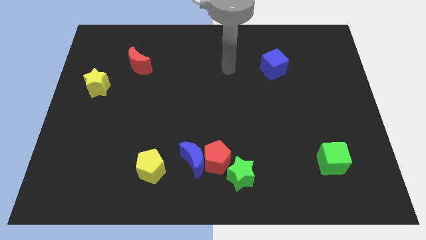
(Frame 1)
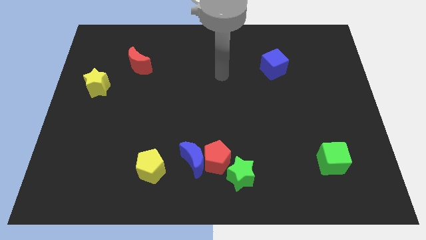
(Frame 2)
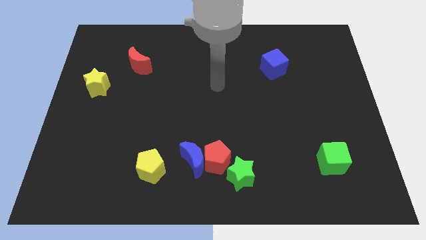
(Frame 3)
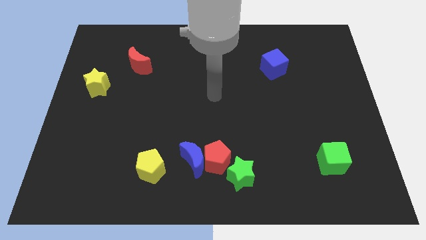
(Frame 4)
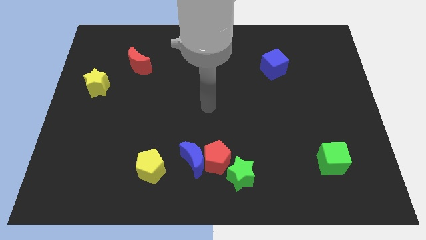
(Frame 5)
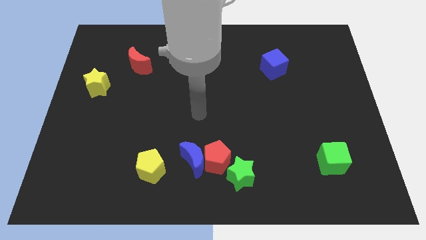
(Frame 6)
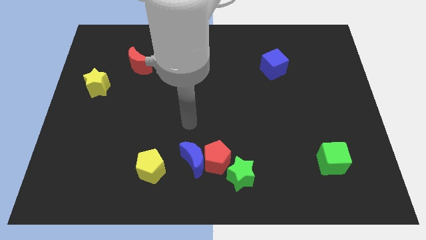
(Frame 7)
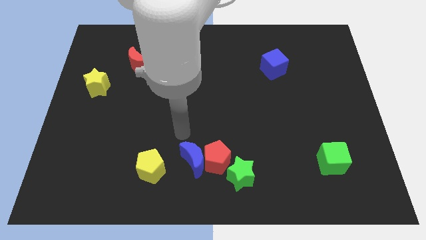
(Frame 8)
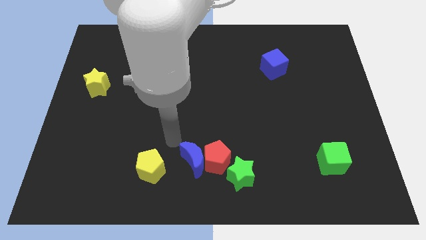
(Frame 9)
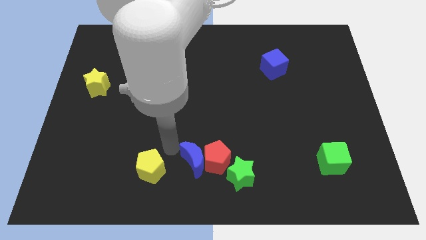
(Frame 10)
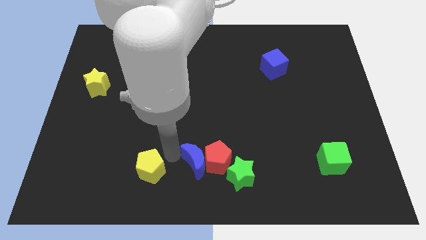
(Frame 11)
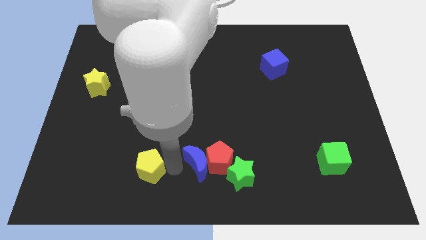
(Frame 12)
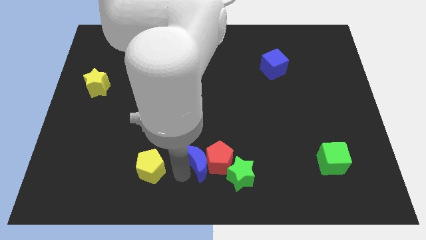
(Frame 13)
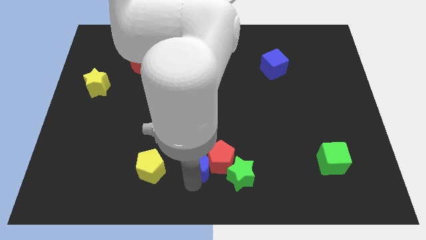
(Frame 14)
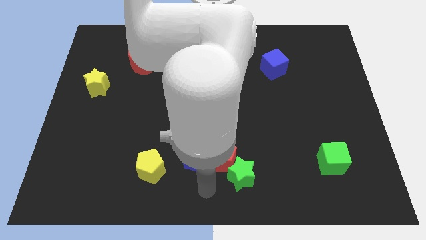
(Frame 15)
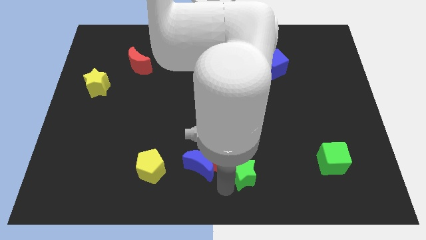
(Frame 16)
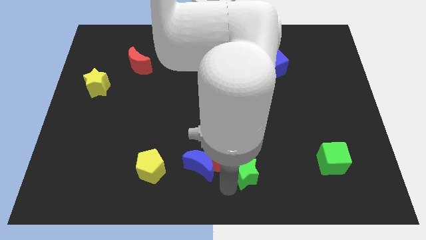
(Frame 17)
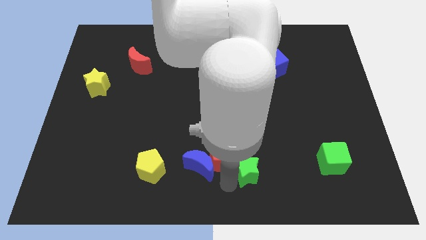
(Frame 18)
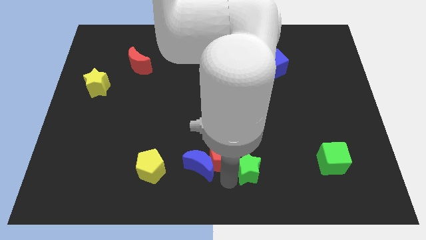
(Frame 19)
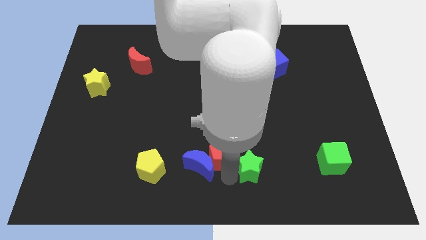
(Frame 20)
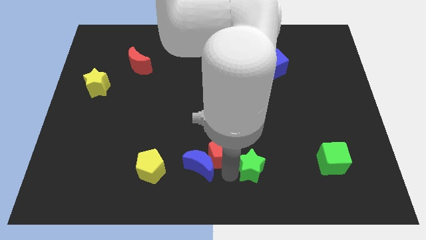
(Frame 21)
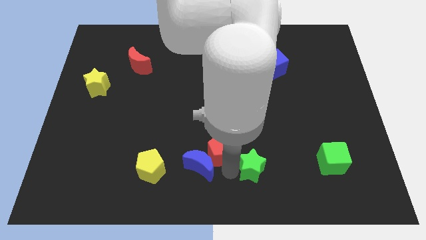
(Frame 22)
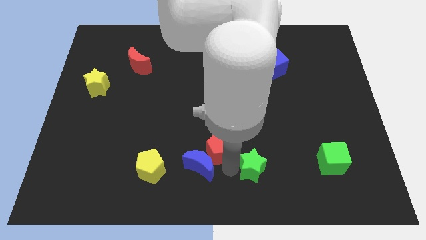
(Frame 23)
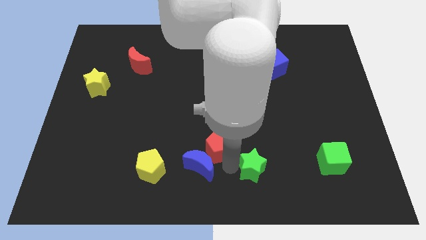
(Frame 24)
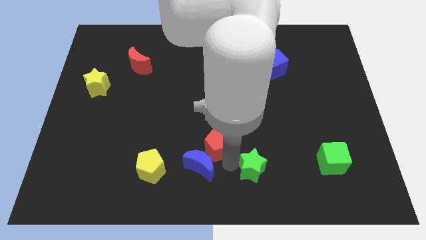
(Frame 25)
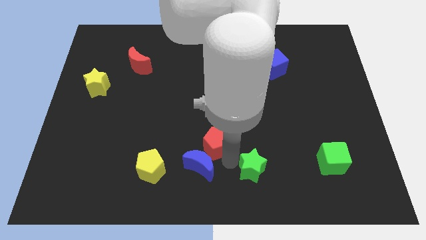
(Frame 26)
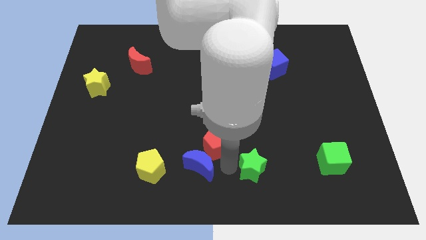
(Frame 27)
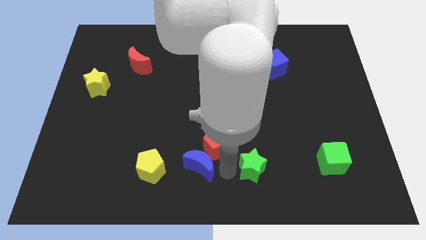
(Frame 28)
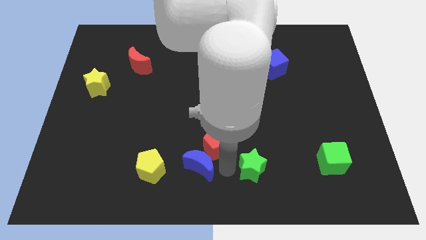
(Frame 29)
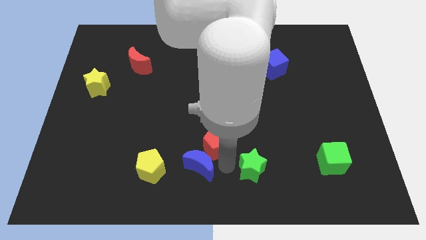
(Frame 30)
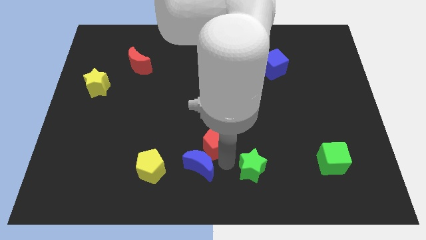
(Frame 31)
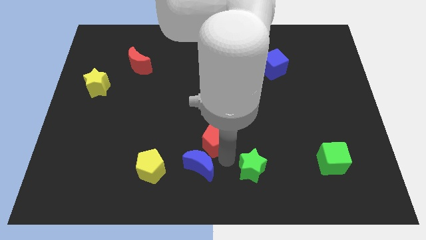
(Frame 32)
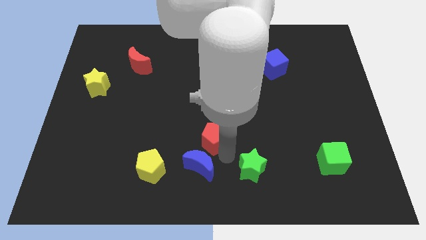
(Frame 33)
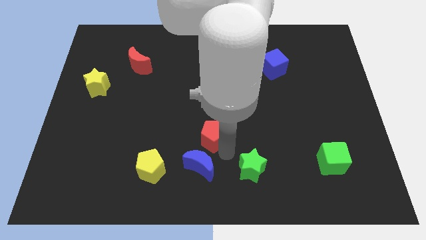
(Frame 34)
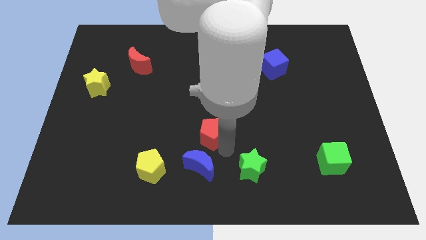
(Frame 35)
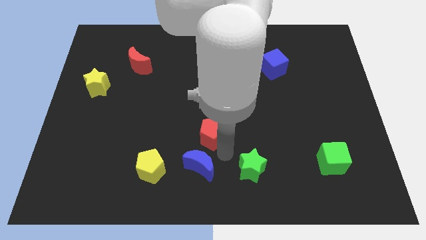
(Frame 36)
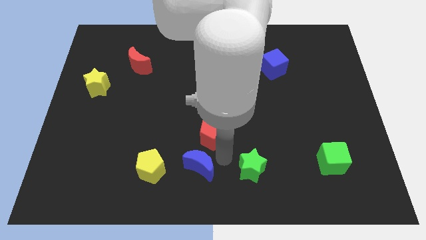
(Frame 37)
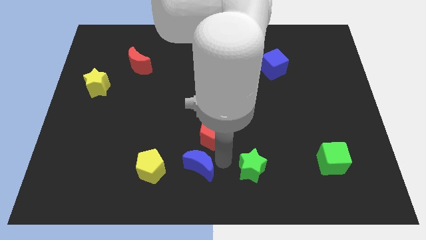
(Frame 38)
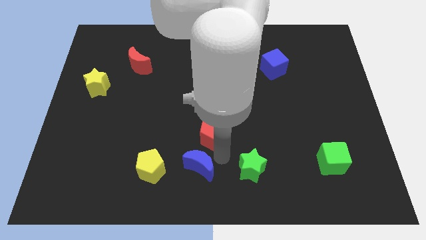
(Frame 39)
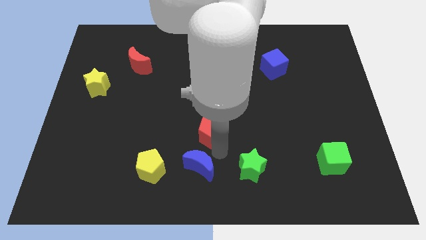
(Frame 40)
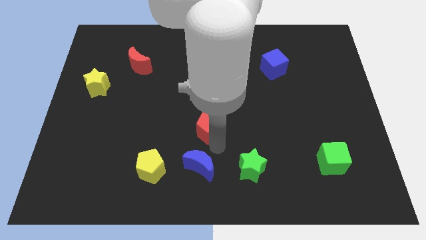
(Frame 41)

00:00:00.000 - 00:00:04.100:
separate the red pentagon from the blue moon and green star

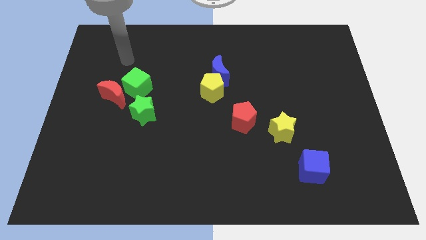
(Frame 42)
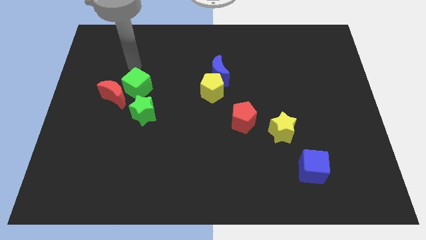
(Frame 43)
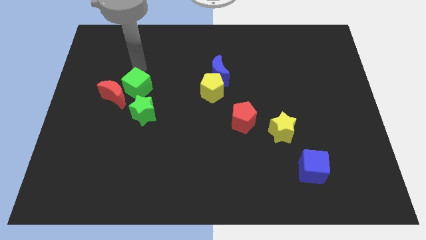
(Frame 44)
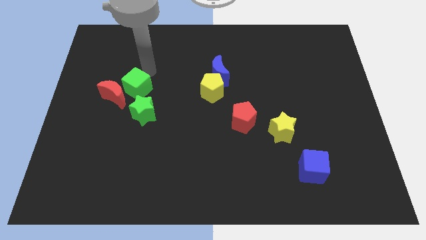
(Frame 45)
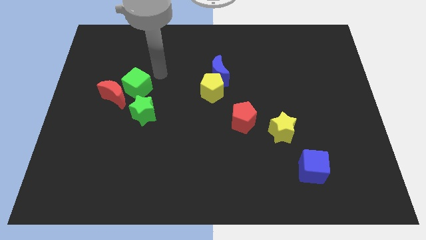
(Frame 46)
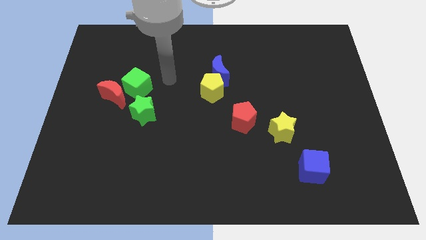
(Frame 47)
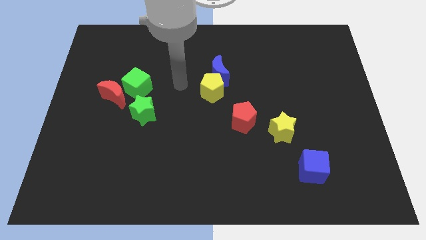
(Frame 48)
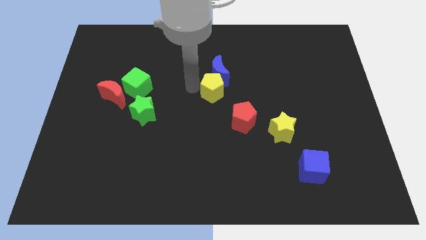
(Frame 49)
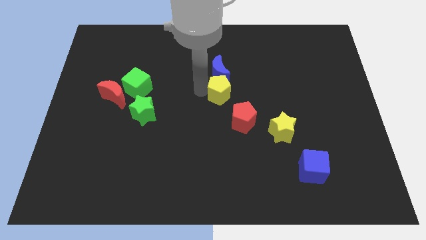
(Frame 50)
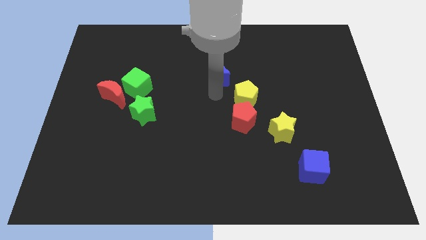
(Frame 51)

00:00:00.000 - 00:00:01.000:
move the blue moon away from the yellow pentagon

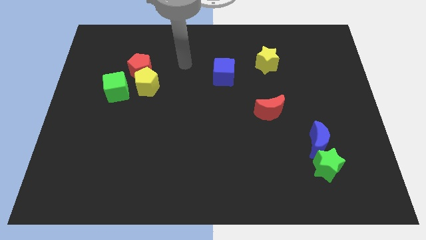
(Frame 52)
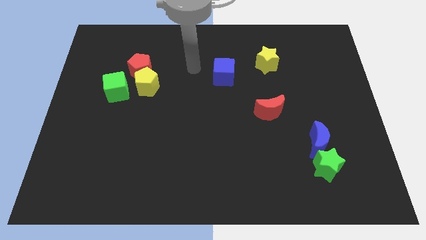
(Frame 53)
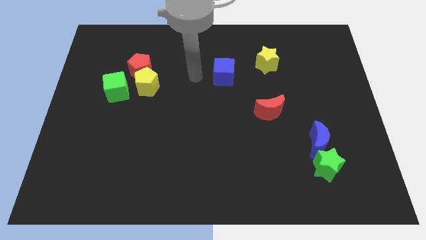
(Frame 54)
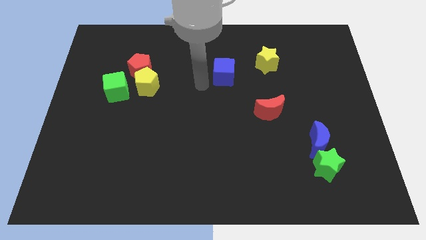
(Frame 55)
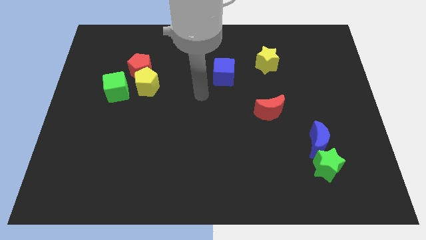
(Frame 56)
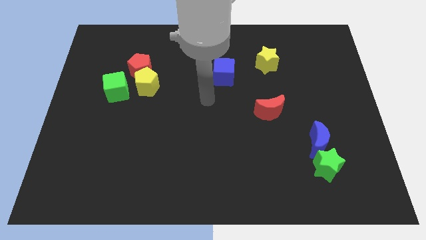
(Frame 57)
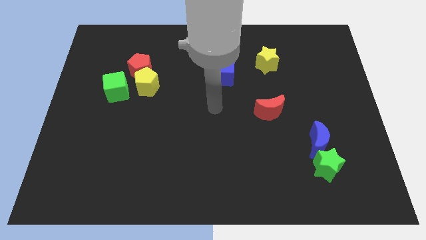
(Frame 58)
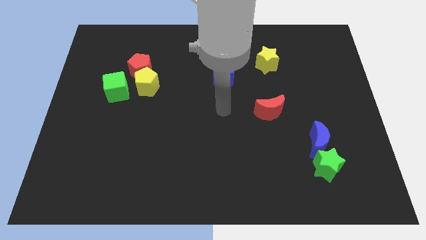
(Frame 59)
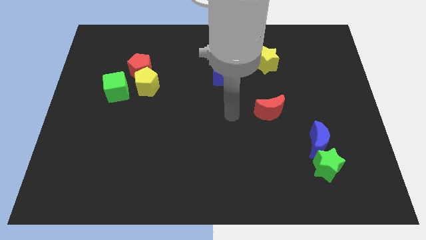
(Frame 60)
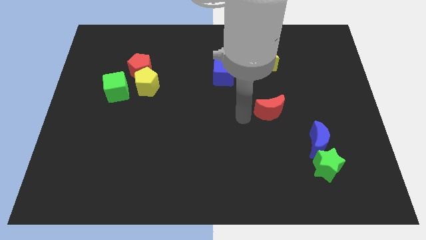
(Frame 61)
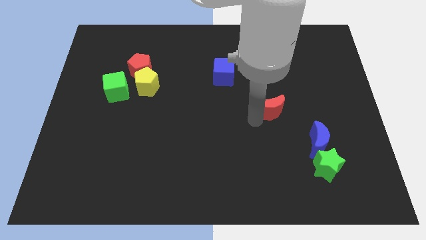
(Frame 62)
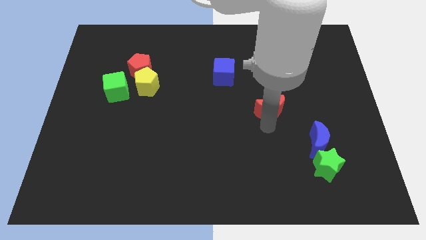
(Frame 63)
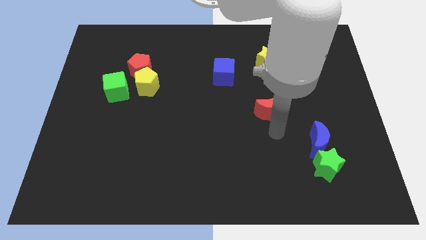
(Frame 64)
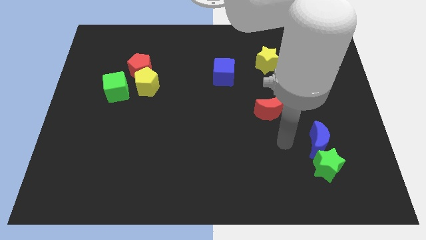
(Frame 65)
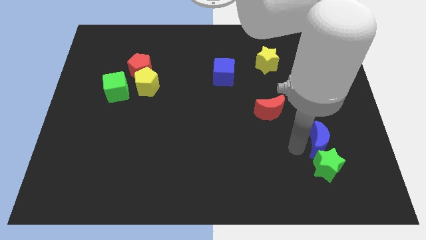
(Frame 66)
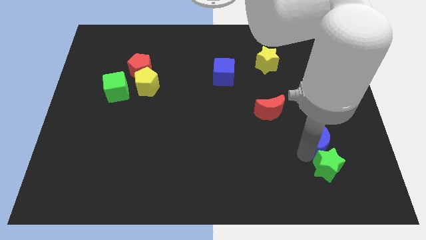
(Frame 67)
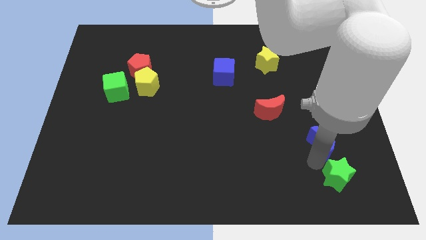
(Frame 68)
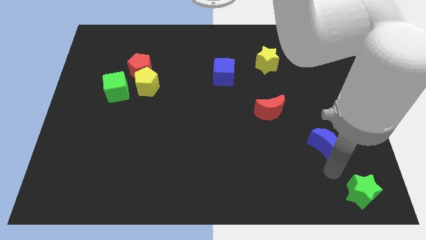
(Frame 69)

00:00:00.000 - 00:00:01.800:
pull the blue moon apart from the green star

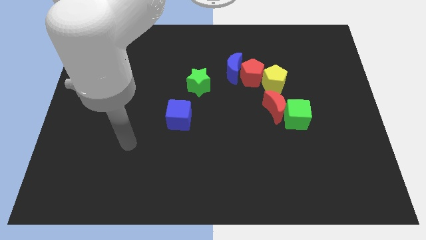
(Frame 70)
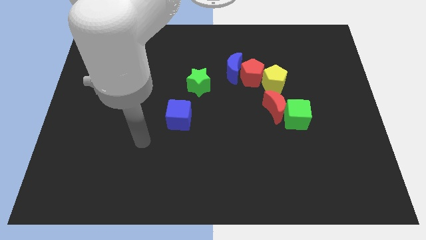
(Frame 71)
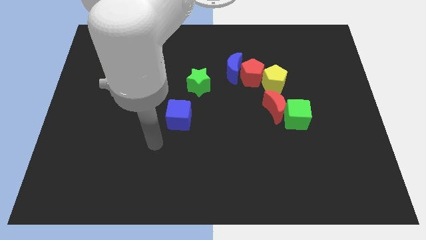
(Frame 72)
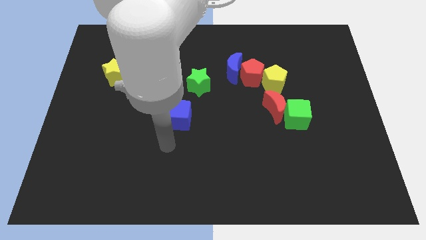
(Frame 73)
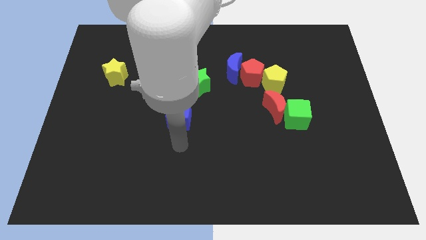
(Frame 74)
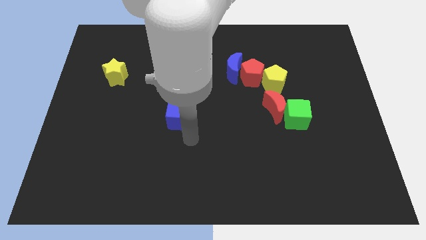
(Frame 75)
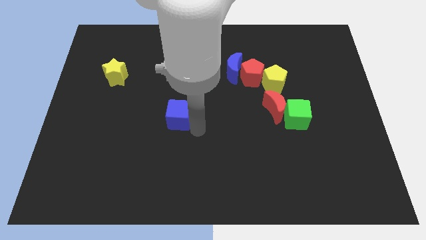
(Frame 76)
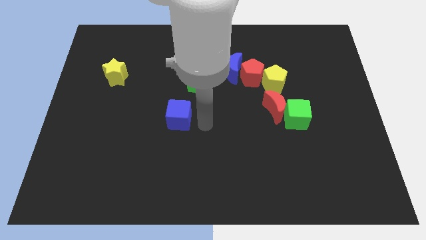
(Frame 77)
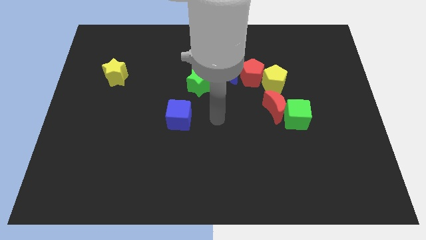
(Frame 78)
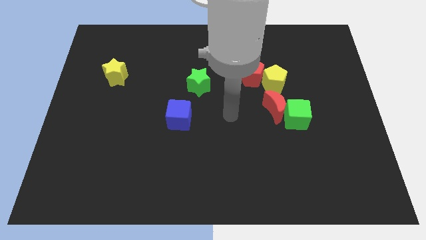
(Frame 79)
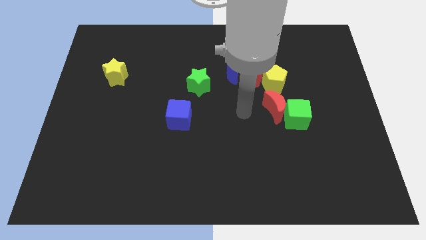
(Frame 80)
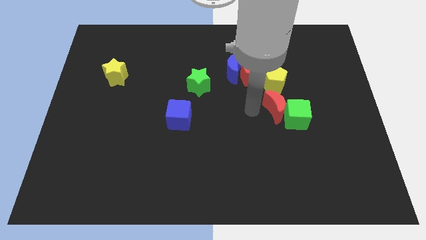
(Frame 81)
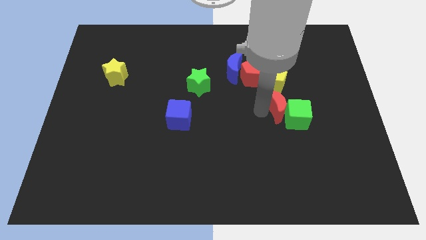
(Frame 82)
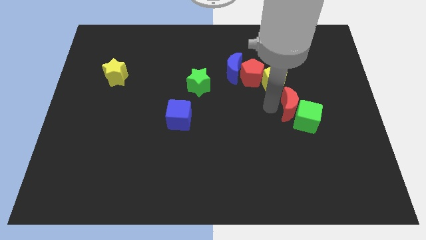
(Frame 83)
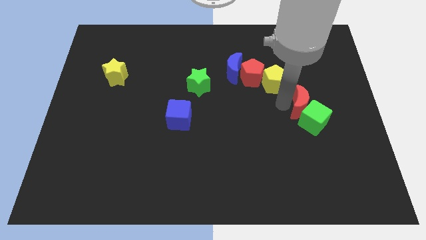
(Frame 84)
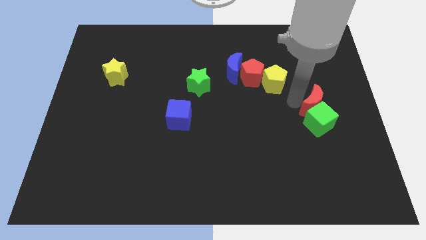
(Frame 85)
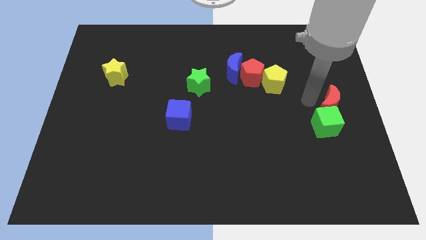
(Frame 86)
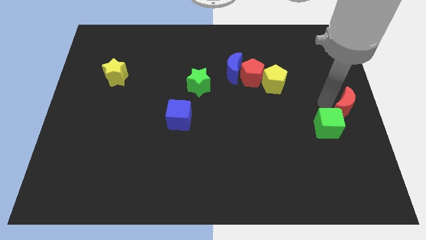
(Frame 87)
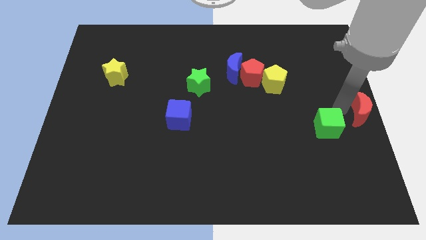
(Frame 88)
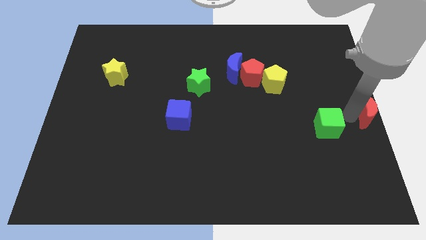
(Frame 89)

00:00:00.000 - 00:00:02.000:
pull the green cube apart from the red moon

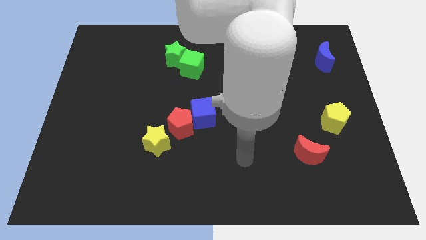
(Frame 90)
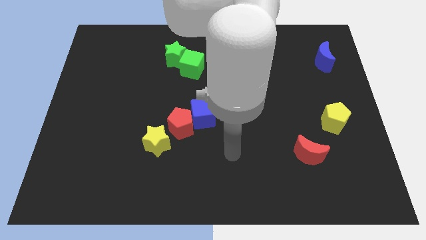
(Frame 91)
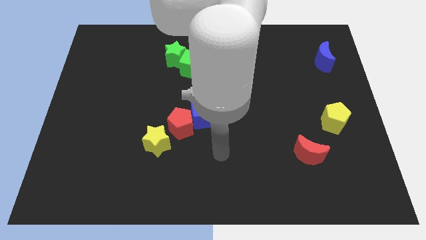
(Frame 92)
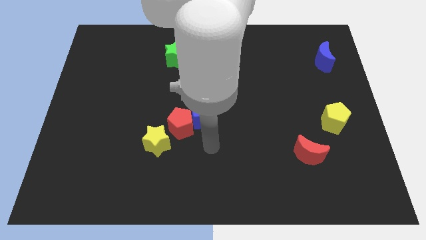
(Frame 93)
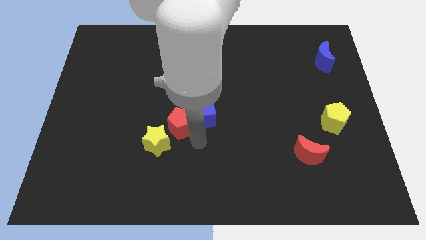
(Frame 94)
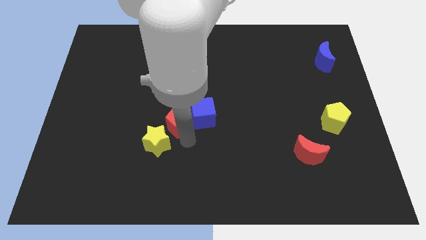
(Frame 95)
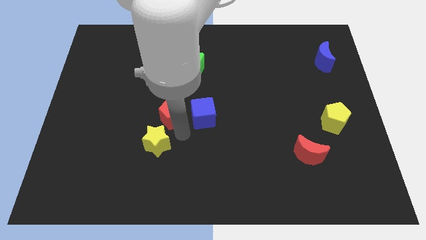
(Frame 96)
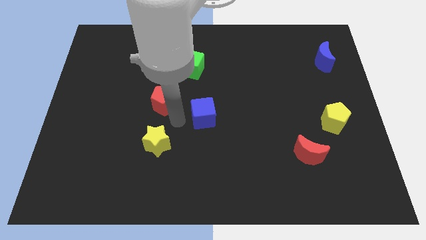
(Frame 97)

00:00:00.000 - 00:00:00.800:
separate the blue cube from the red pentagon
